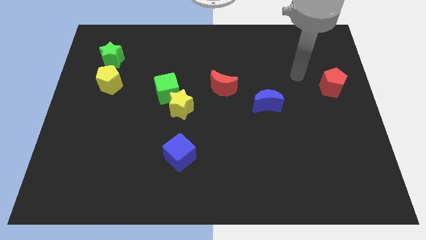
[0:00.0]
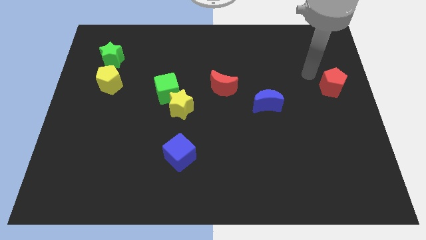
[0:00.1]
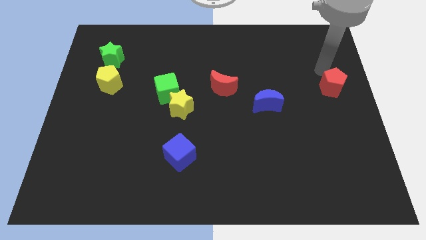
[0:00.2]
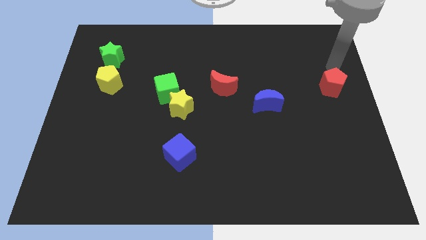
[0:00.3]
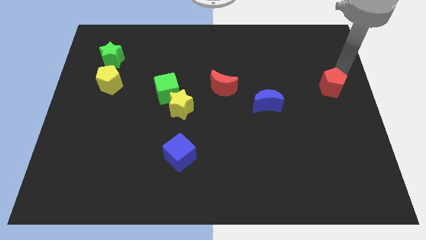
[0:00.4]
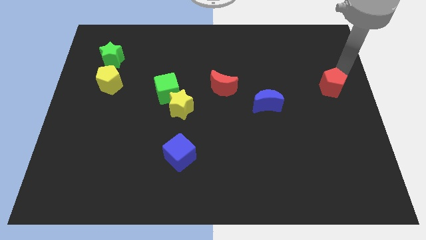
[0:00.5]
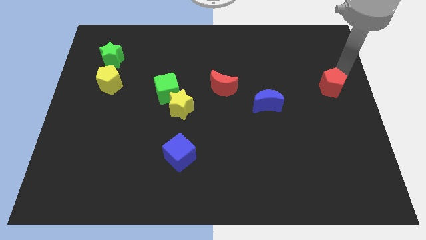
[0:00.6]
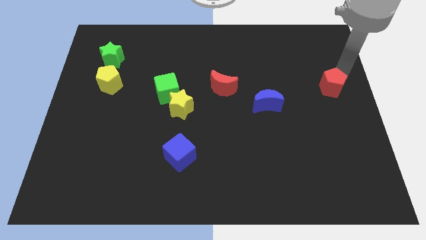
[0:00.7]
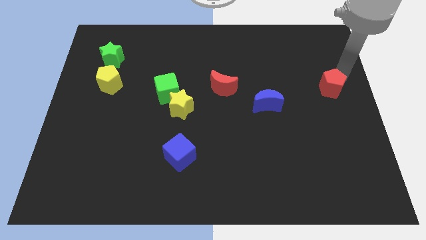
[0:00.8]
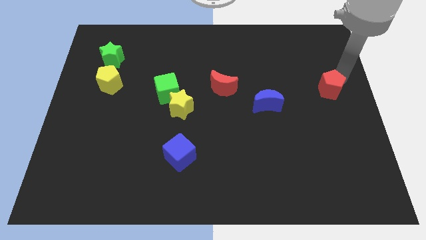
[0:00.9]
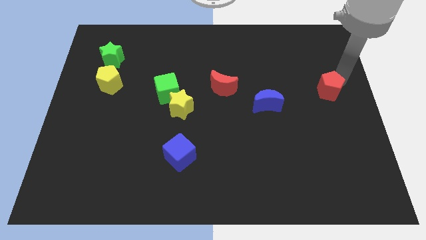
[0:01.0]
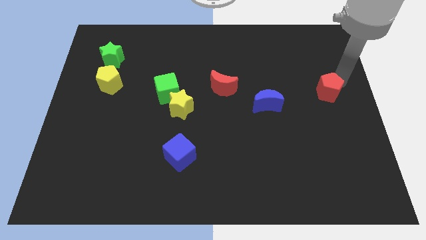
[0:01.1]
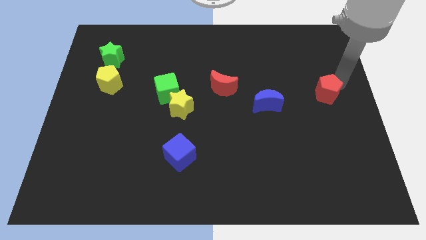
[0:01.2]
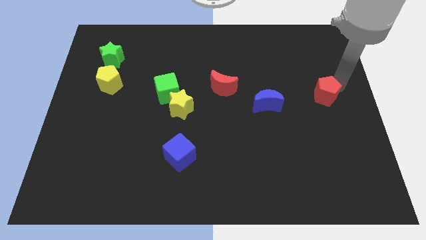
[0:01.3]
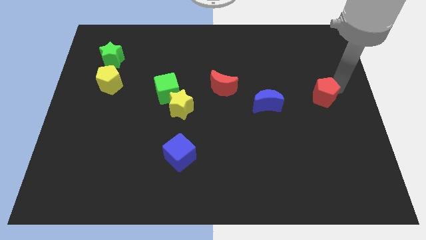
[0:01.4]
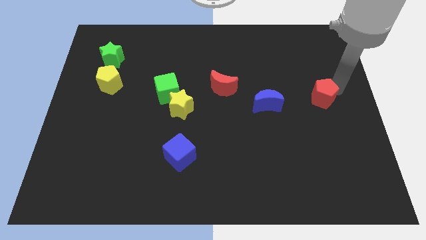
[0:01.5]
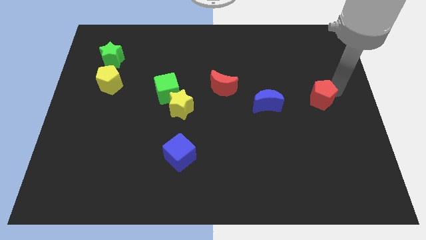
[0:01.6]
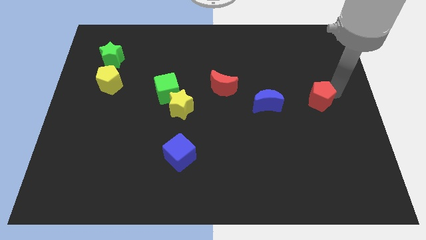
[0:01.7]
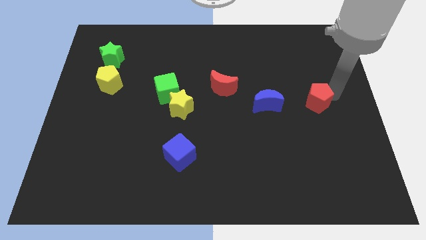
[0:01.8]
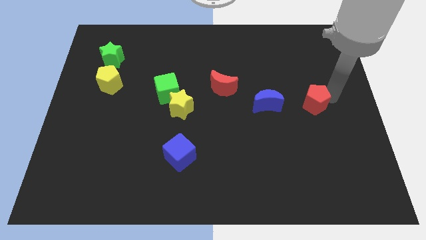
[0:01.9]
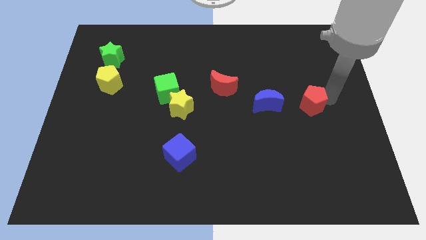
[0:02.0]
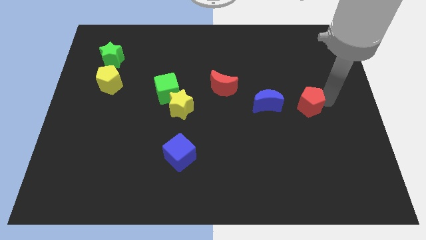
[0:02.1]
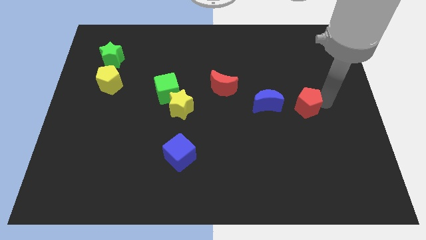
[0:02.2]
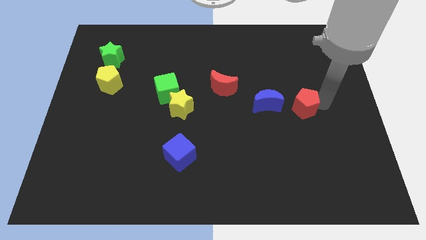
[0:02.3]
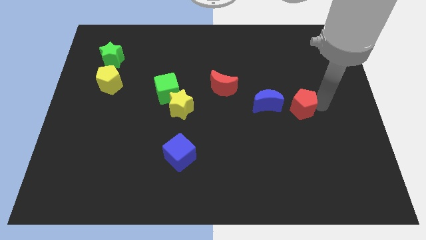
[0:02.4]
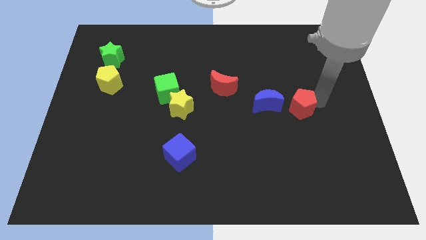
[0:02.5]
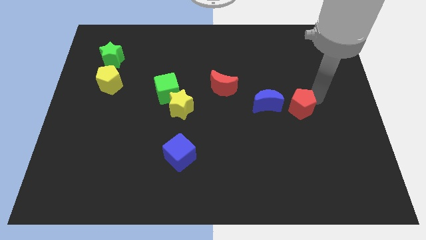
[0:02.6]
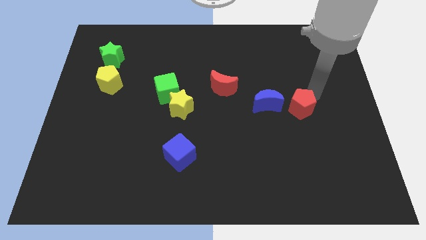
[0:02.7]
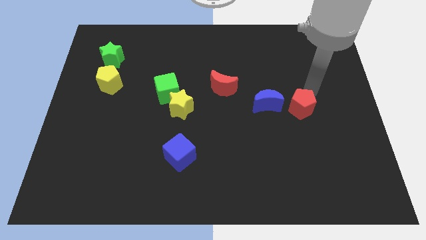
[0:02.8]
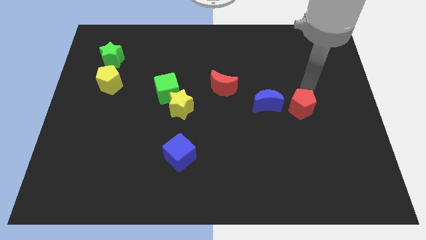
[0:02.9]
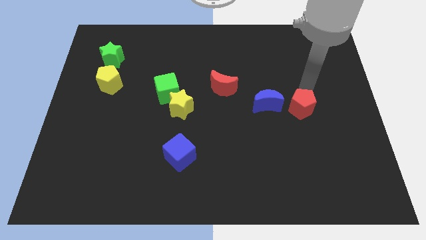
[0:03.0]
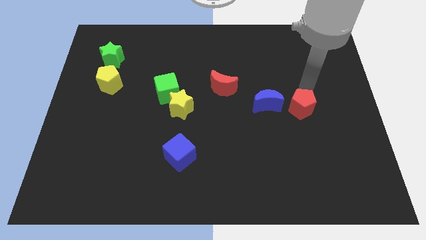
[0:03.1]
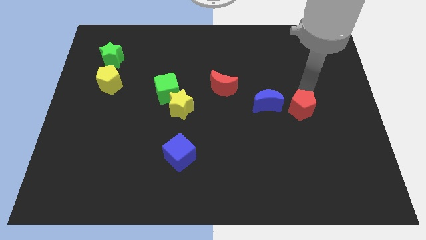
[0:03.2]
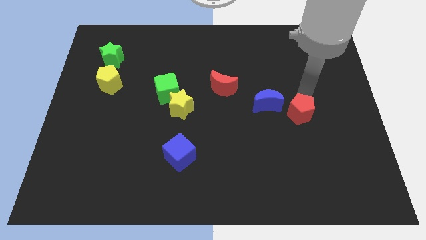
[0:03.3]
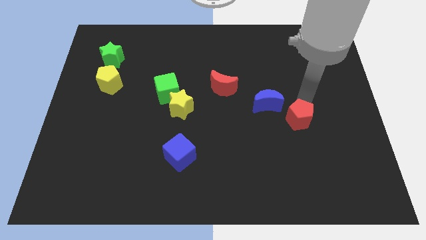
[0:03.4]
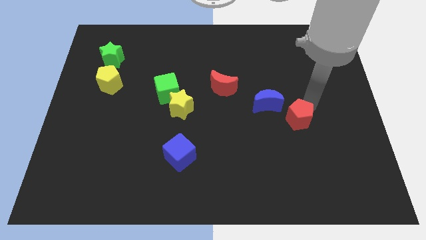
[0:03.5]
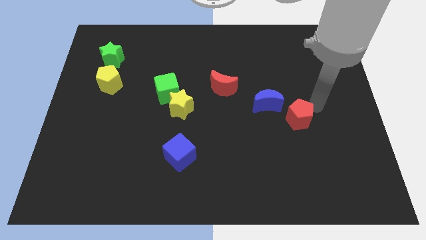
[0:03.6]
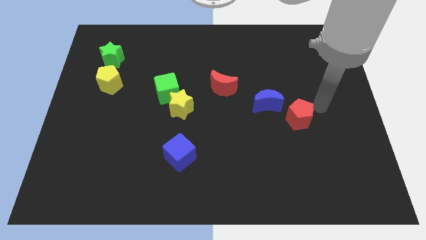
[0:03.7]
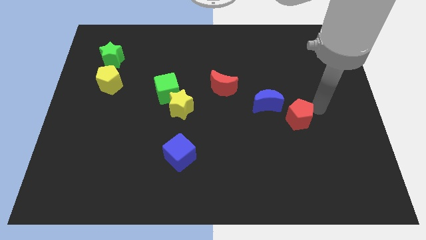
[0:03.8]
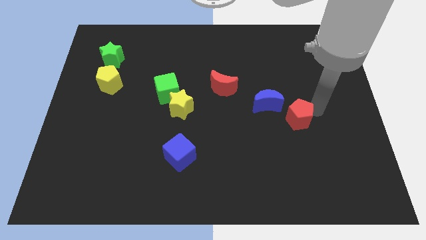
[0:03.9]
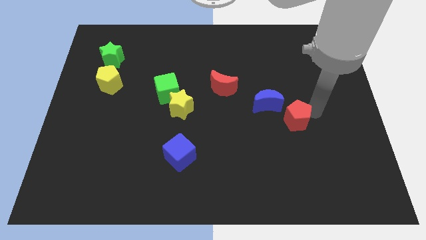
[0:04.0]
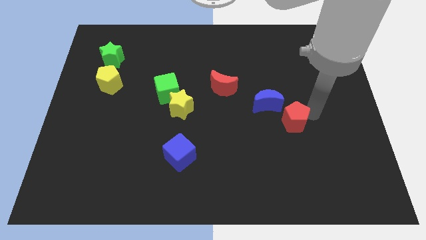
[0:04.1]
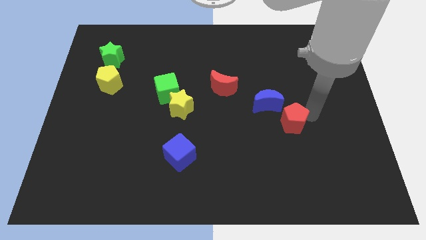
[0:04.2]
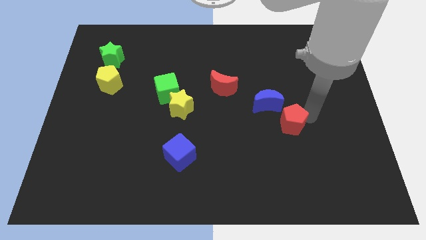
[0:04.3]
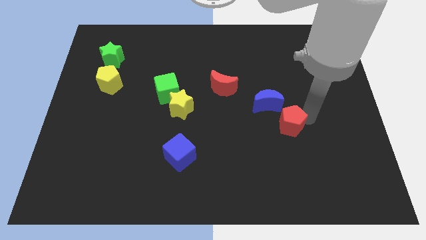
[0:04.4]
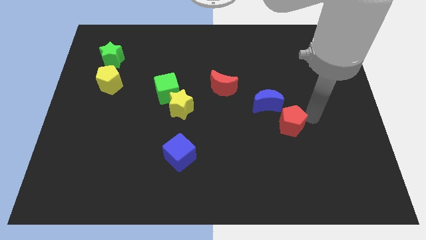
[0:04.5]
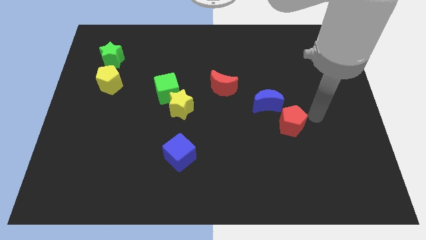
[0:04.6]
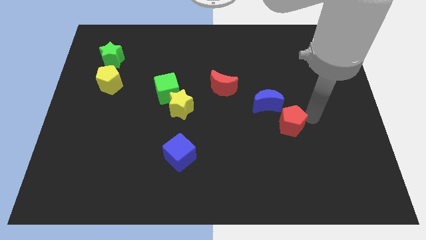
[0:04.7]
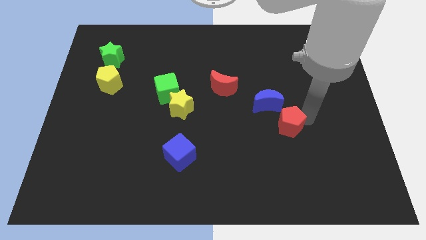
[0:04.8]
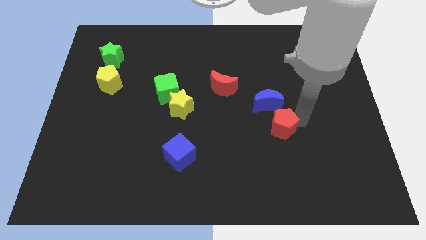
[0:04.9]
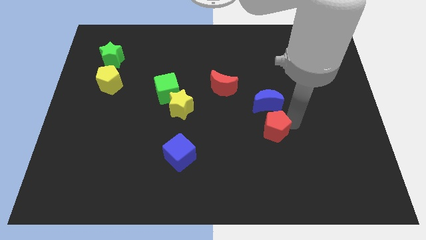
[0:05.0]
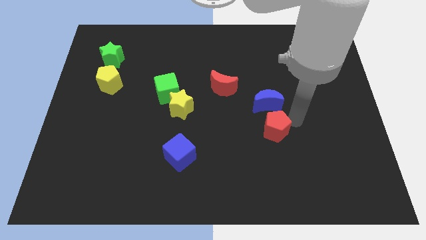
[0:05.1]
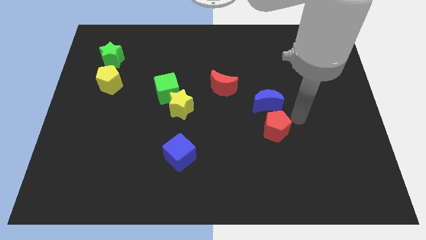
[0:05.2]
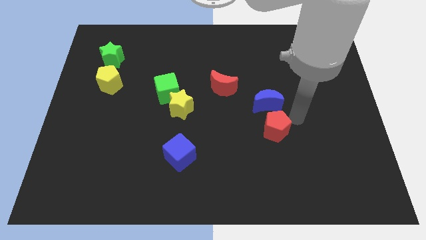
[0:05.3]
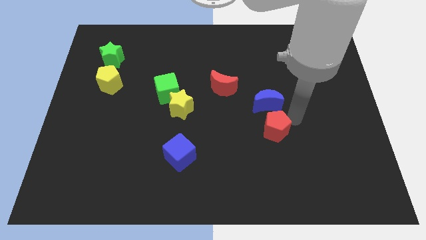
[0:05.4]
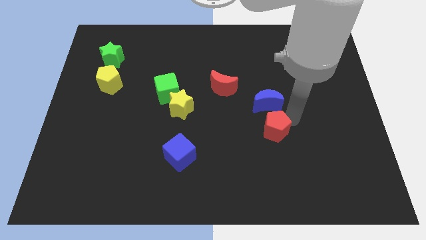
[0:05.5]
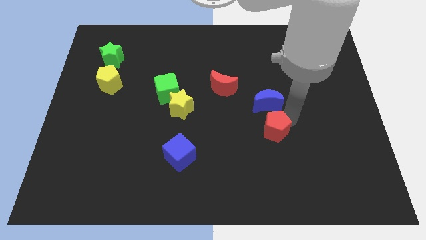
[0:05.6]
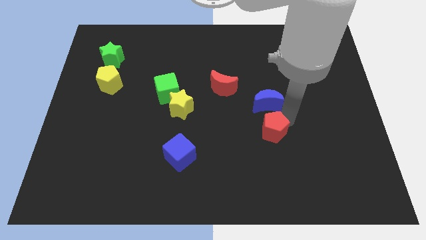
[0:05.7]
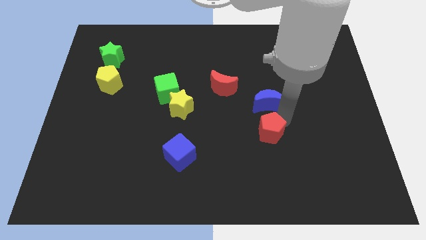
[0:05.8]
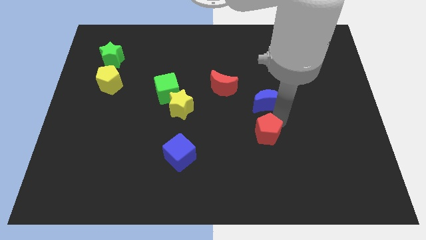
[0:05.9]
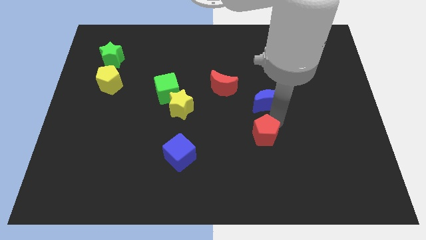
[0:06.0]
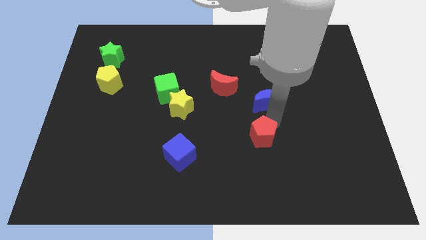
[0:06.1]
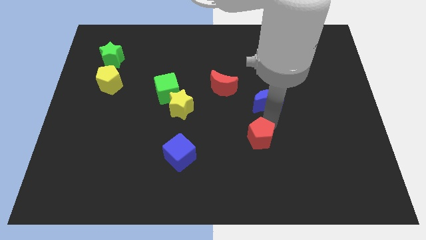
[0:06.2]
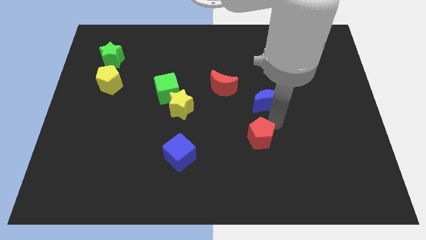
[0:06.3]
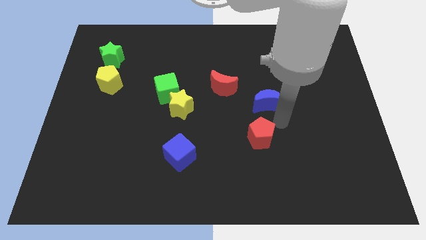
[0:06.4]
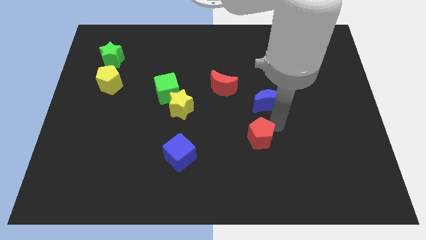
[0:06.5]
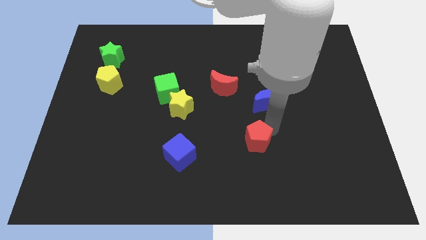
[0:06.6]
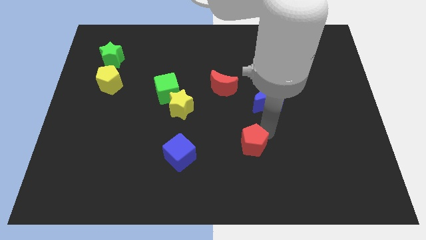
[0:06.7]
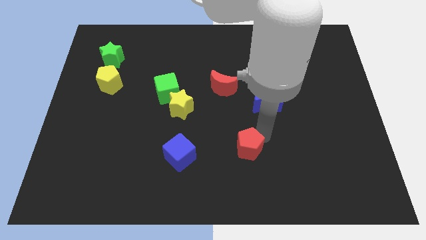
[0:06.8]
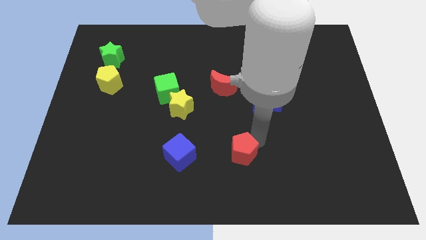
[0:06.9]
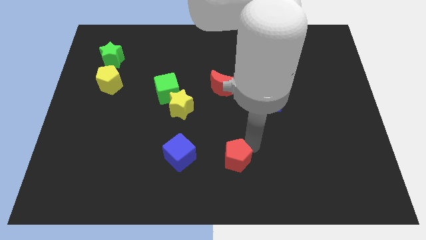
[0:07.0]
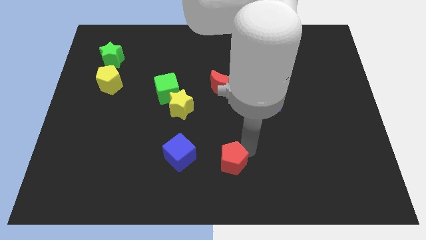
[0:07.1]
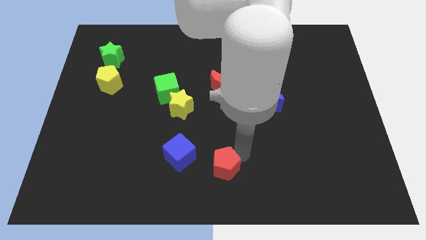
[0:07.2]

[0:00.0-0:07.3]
put the red pentagon to the bottom right side of the blue cube
